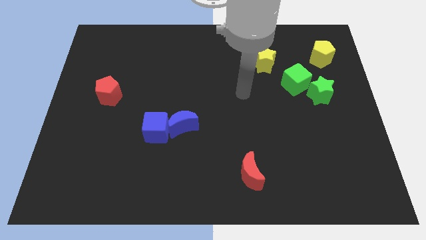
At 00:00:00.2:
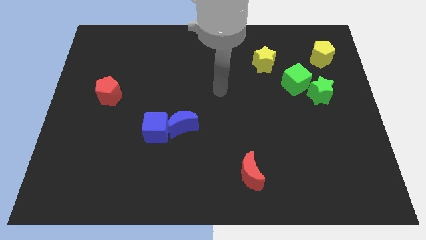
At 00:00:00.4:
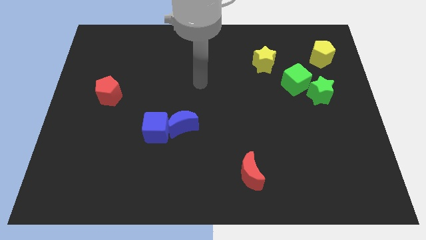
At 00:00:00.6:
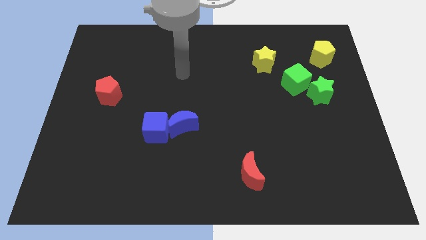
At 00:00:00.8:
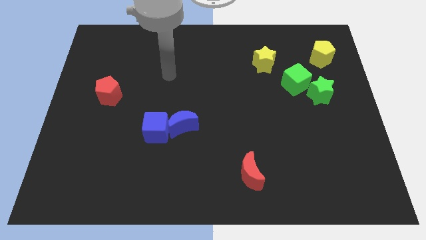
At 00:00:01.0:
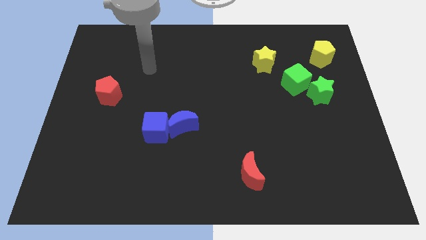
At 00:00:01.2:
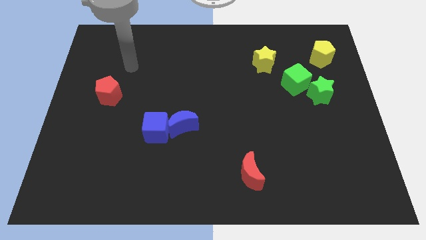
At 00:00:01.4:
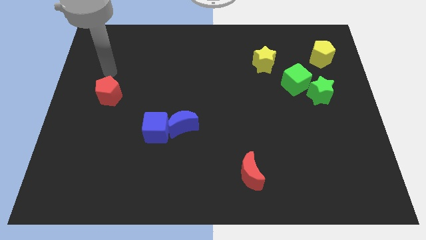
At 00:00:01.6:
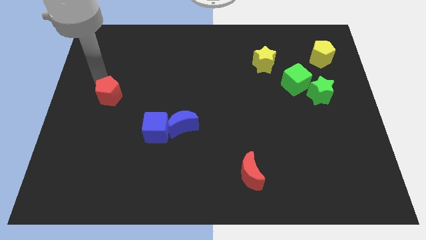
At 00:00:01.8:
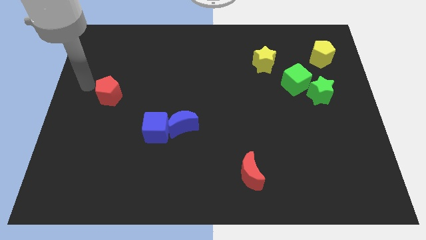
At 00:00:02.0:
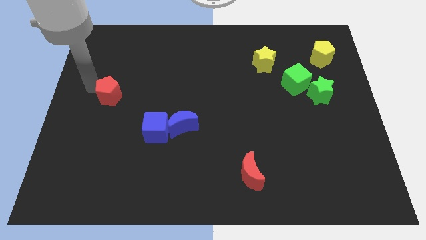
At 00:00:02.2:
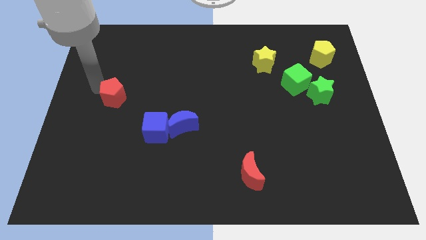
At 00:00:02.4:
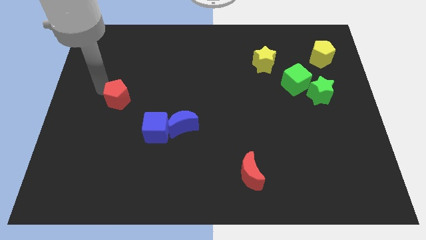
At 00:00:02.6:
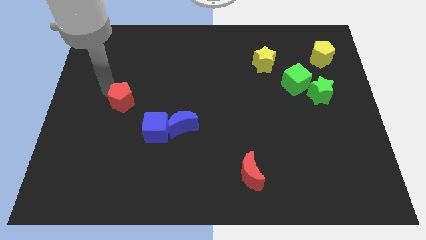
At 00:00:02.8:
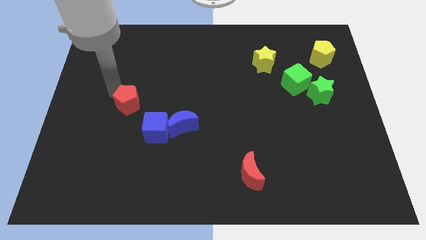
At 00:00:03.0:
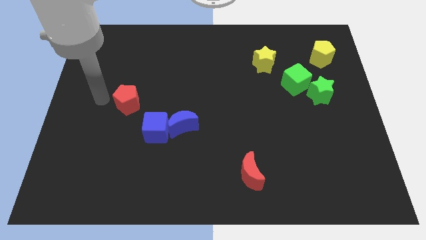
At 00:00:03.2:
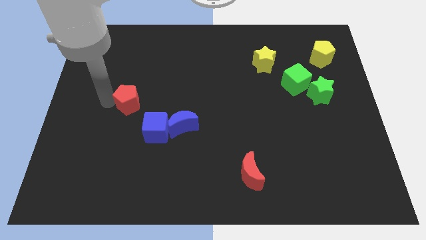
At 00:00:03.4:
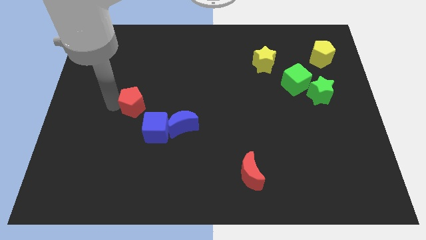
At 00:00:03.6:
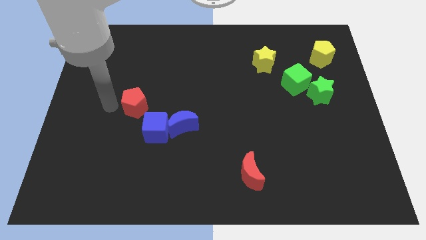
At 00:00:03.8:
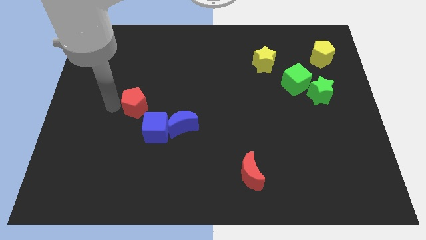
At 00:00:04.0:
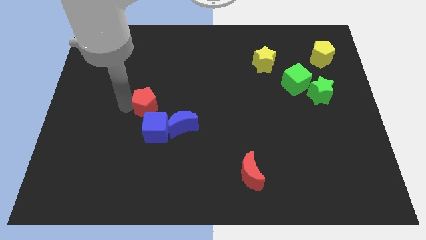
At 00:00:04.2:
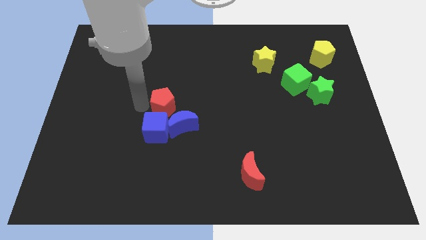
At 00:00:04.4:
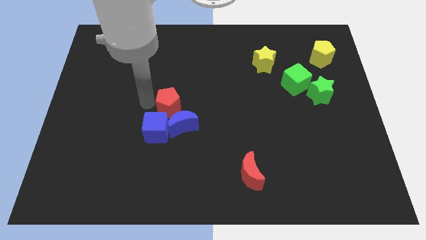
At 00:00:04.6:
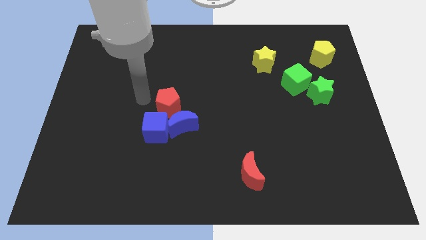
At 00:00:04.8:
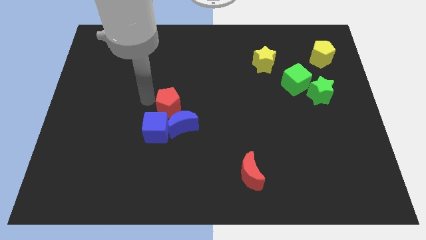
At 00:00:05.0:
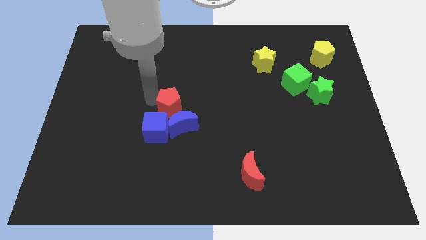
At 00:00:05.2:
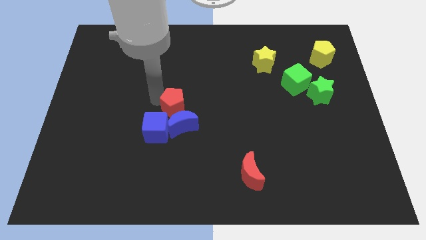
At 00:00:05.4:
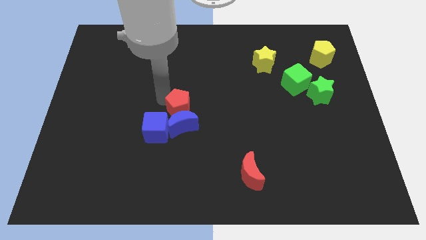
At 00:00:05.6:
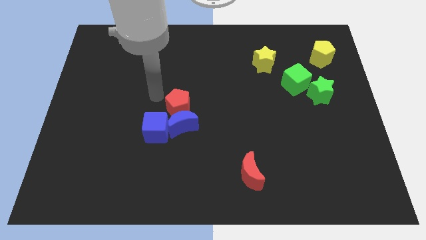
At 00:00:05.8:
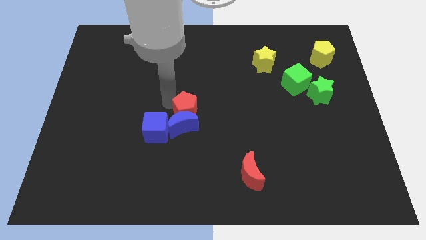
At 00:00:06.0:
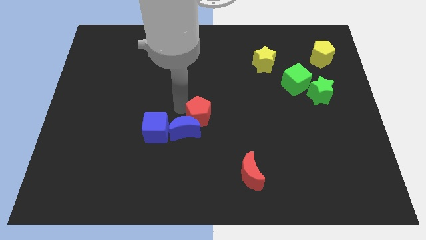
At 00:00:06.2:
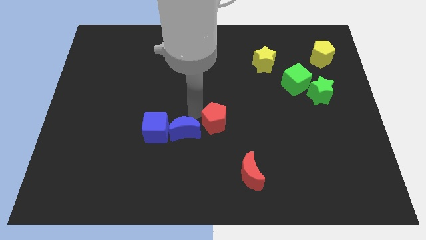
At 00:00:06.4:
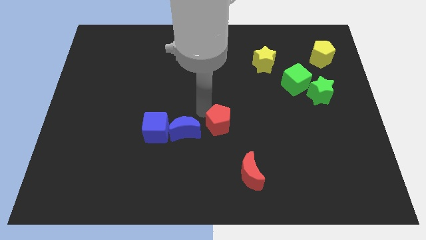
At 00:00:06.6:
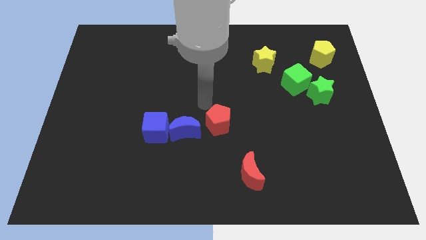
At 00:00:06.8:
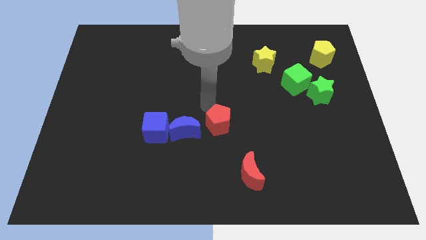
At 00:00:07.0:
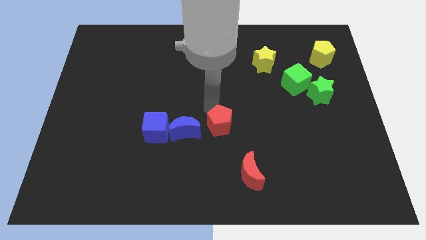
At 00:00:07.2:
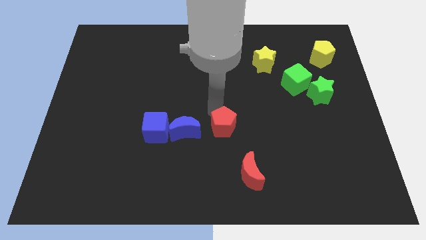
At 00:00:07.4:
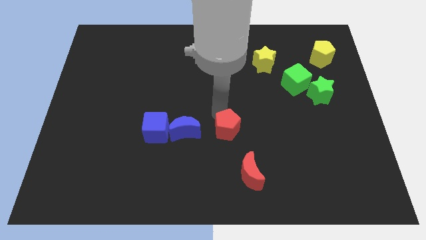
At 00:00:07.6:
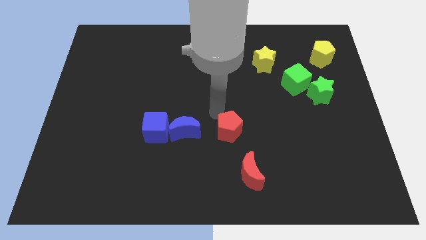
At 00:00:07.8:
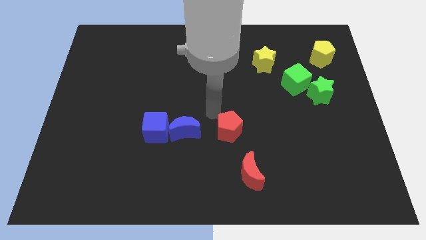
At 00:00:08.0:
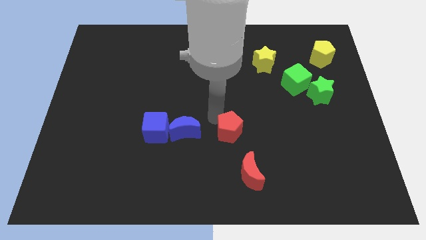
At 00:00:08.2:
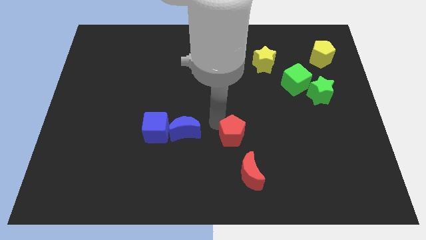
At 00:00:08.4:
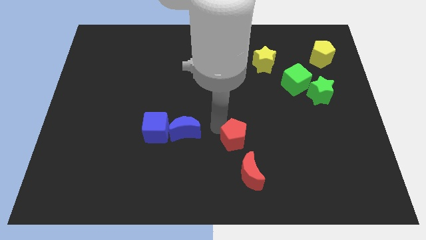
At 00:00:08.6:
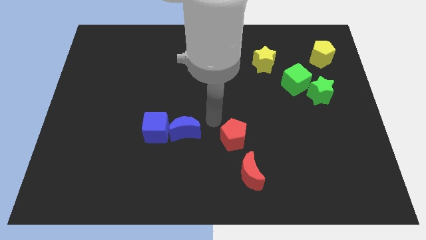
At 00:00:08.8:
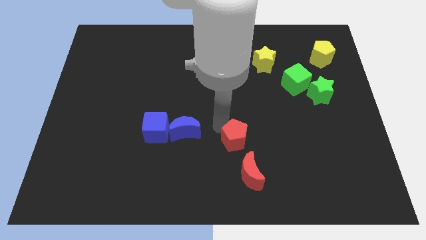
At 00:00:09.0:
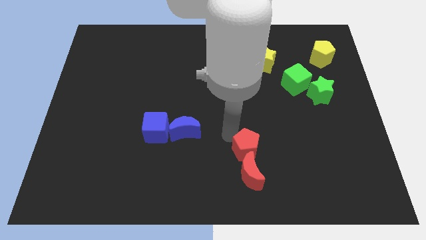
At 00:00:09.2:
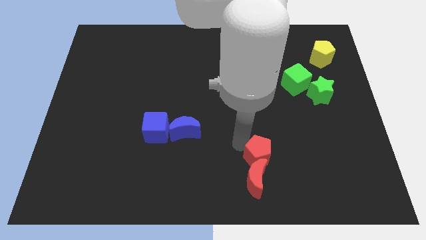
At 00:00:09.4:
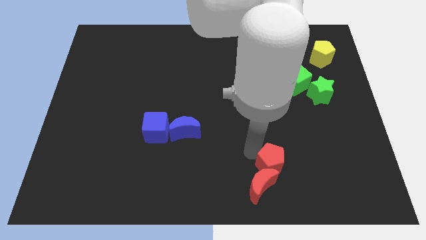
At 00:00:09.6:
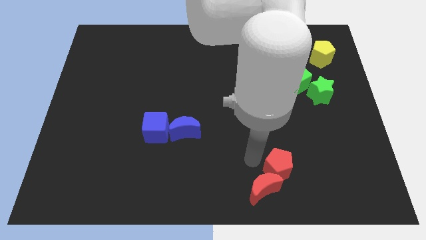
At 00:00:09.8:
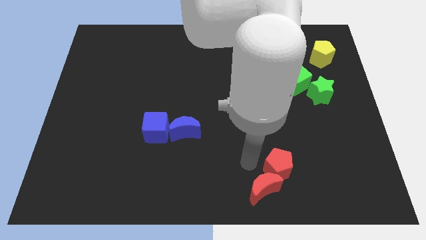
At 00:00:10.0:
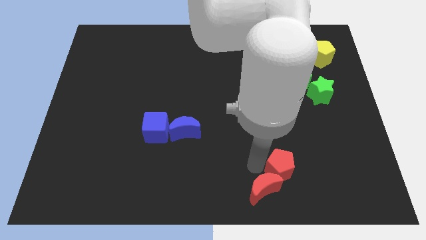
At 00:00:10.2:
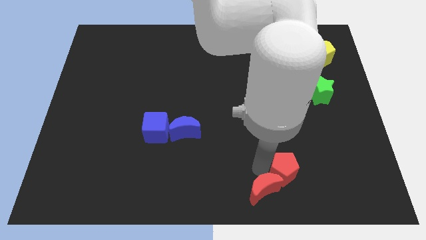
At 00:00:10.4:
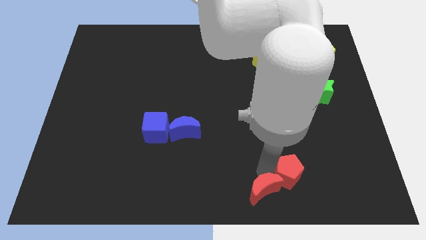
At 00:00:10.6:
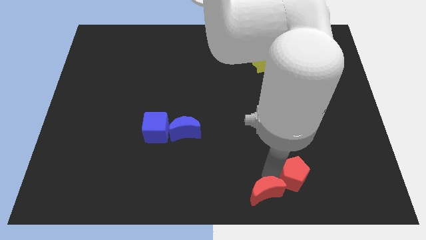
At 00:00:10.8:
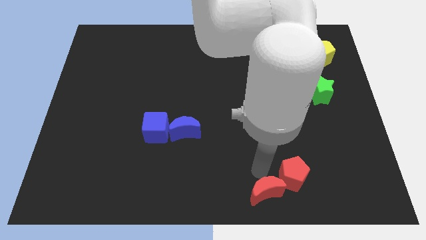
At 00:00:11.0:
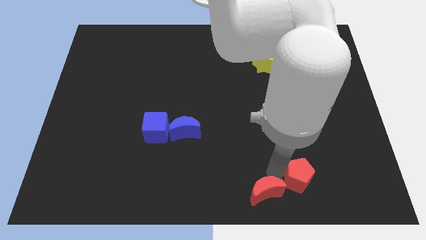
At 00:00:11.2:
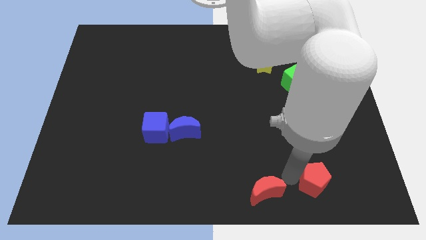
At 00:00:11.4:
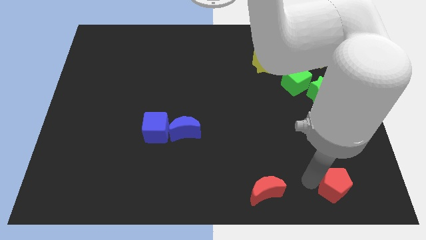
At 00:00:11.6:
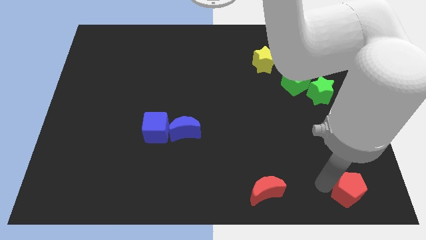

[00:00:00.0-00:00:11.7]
push the red pentagon to the bottom right of the board

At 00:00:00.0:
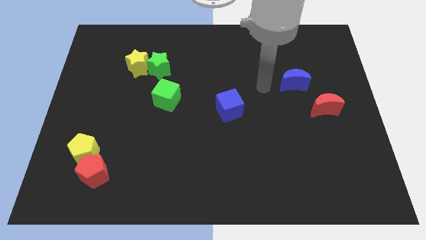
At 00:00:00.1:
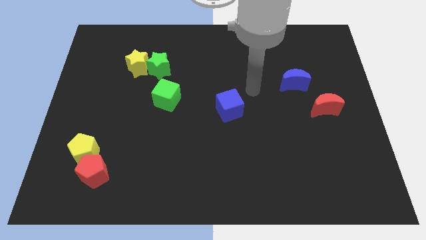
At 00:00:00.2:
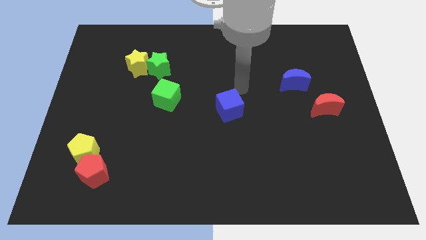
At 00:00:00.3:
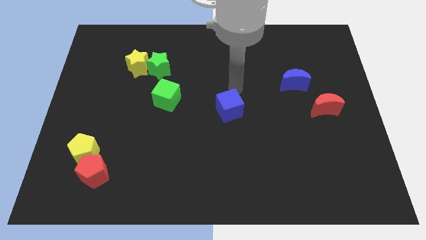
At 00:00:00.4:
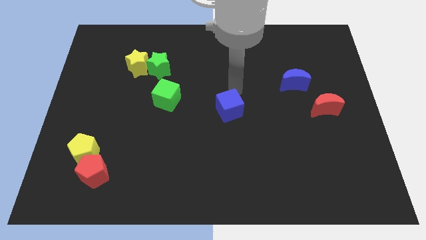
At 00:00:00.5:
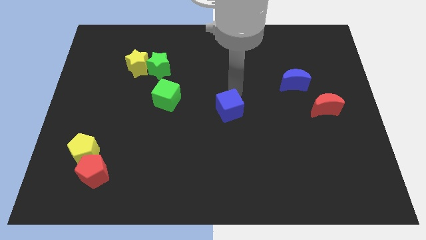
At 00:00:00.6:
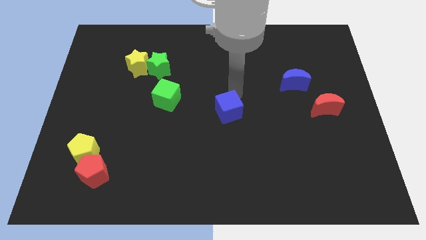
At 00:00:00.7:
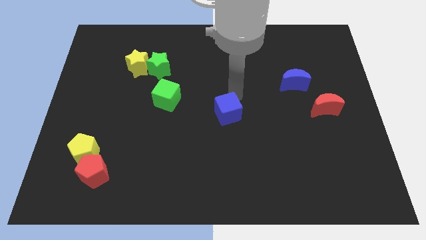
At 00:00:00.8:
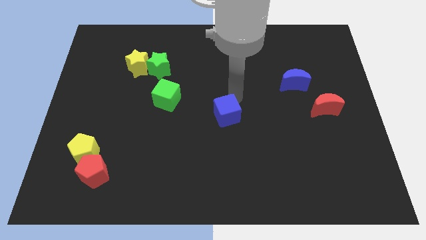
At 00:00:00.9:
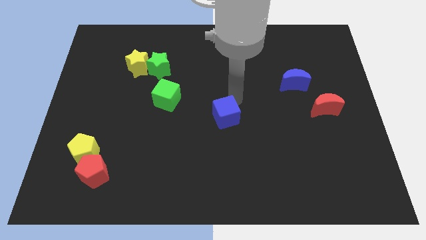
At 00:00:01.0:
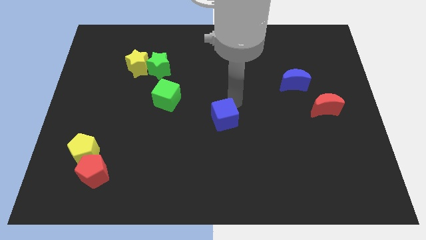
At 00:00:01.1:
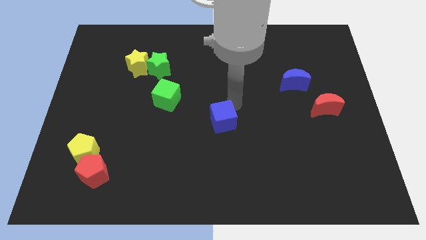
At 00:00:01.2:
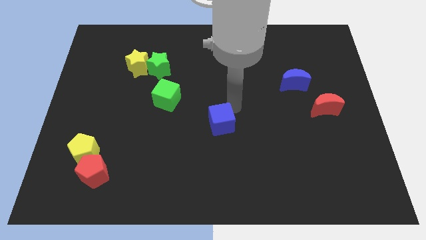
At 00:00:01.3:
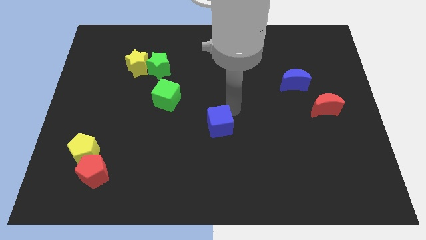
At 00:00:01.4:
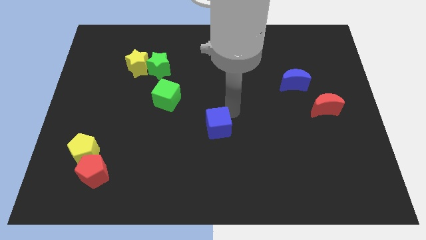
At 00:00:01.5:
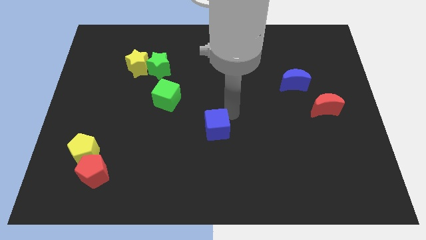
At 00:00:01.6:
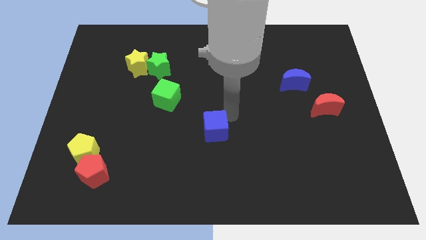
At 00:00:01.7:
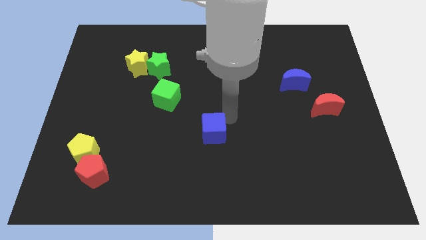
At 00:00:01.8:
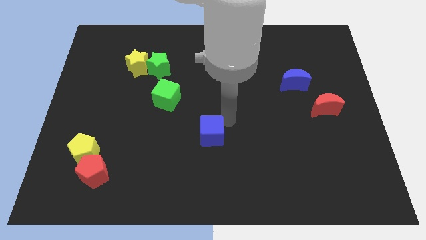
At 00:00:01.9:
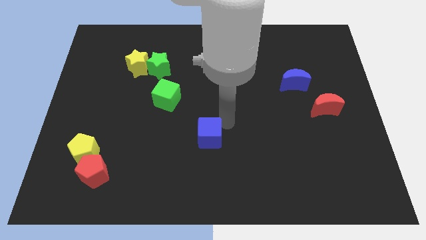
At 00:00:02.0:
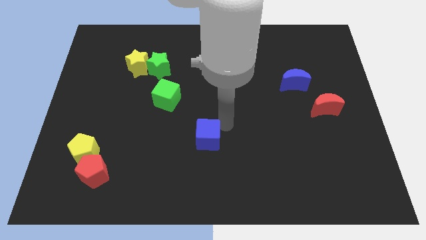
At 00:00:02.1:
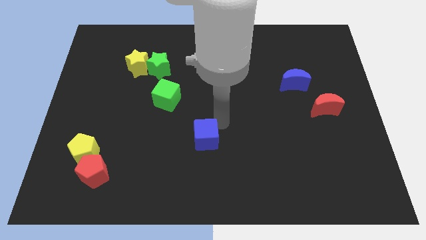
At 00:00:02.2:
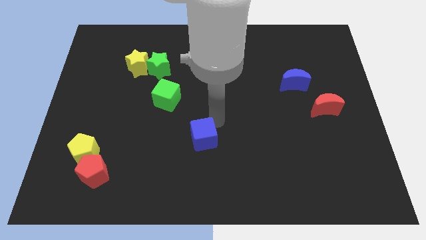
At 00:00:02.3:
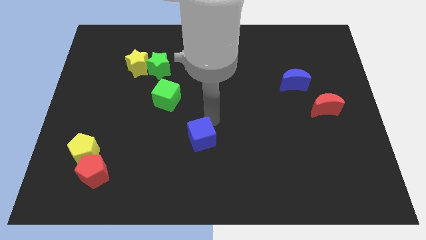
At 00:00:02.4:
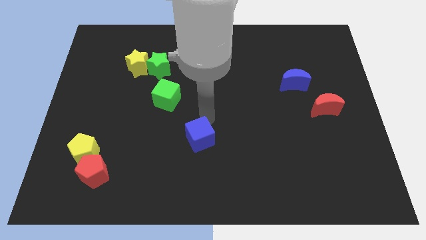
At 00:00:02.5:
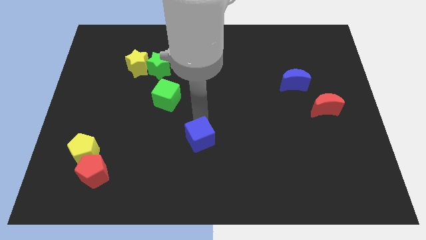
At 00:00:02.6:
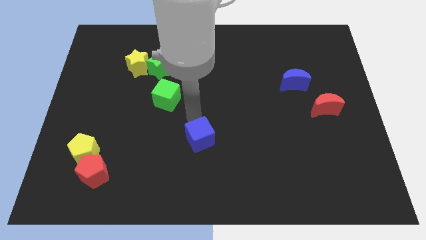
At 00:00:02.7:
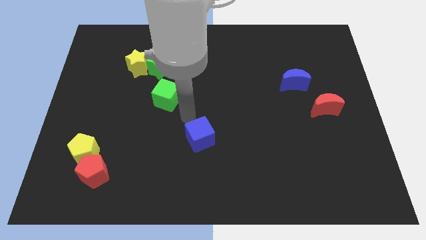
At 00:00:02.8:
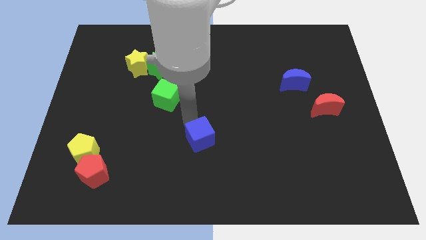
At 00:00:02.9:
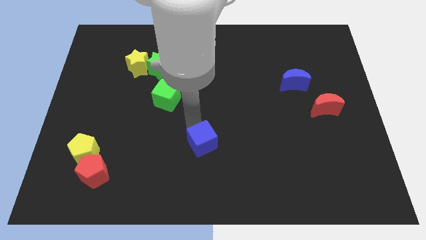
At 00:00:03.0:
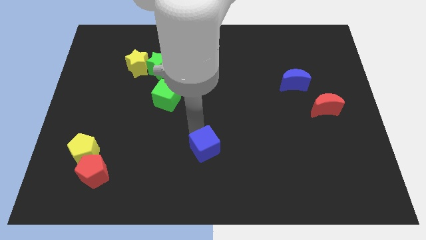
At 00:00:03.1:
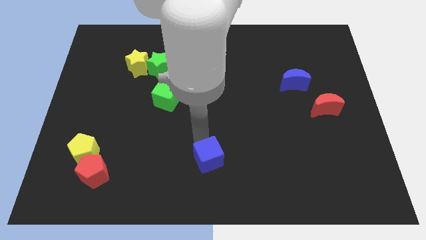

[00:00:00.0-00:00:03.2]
move the blue cube to the bottom side
